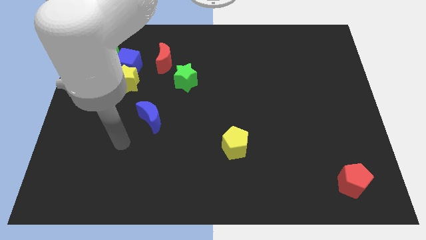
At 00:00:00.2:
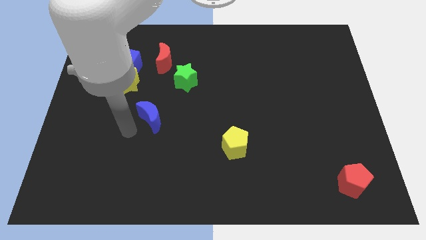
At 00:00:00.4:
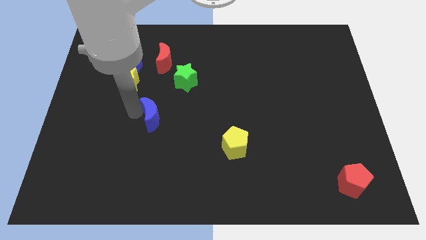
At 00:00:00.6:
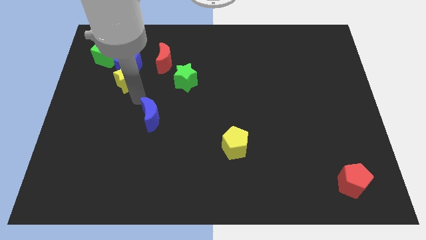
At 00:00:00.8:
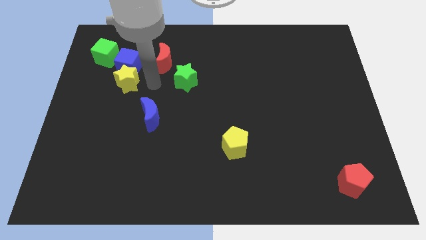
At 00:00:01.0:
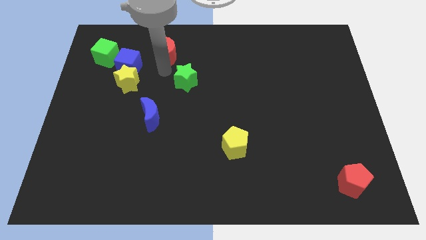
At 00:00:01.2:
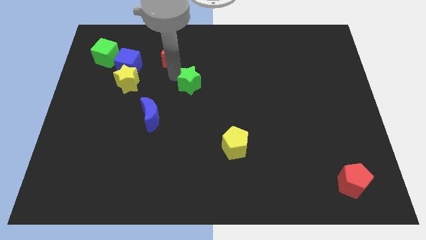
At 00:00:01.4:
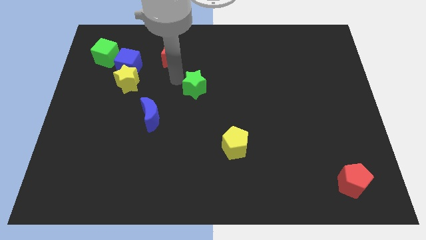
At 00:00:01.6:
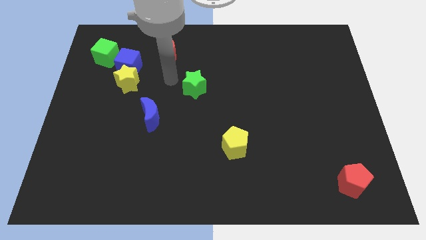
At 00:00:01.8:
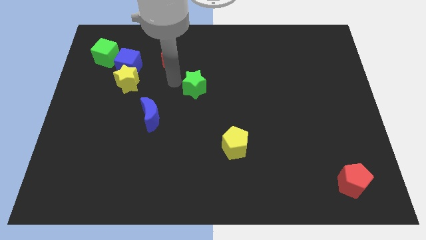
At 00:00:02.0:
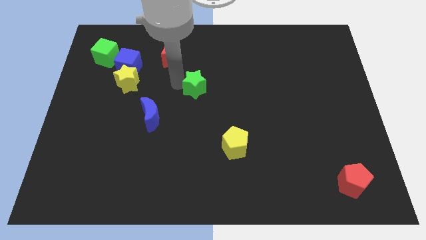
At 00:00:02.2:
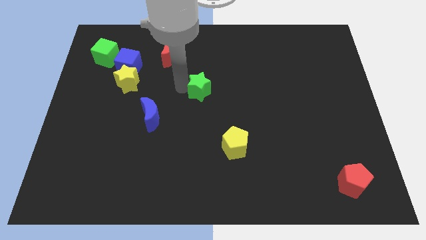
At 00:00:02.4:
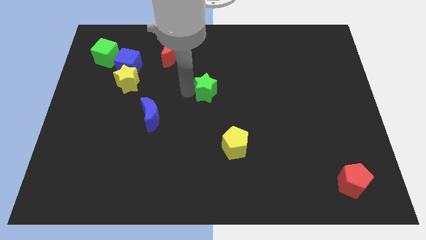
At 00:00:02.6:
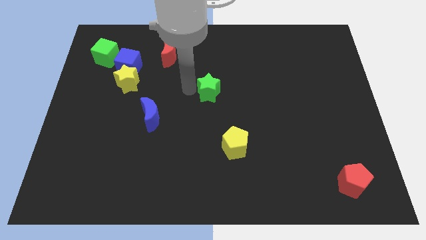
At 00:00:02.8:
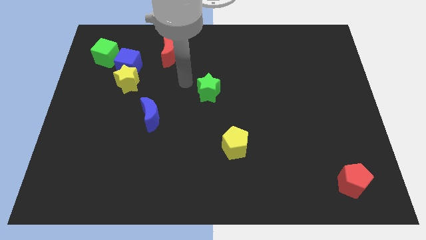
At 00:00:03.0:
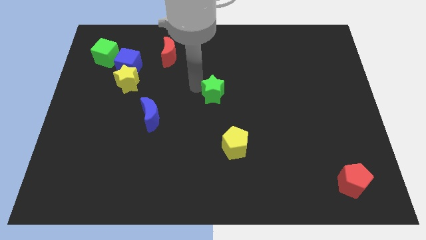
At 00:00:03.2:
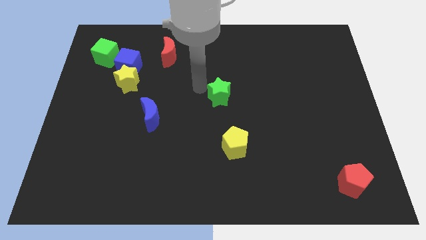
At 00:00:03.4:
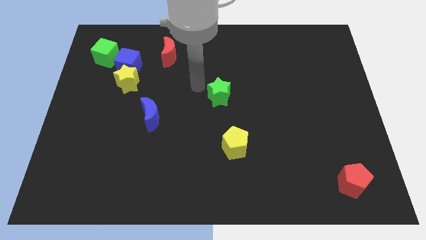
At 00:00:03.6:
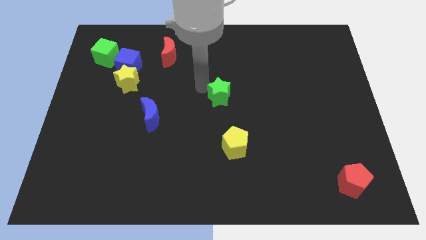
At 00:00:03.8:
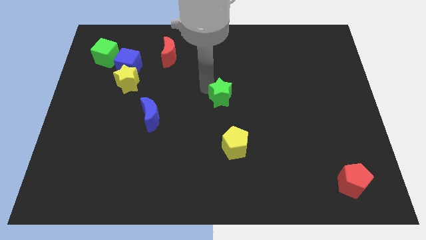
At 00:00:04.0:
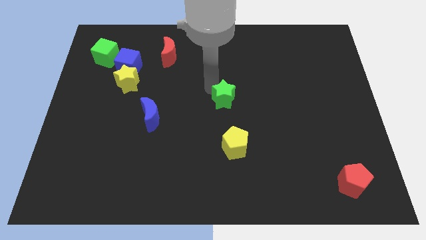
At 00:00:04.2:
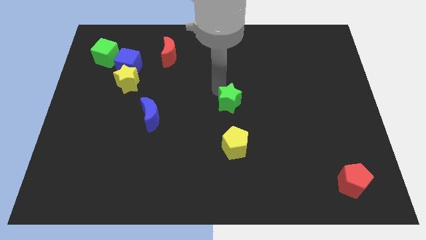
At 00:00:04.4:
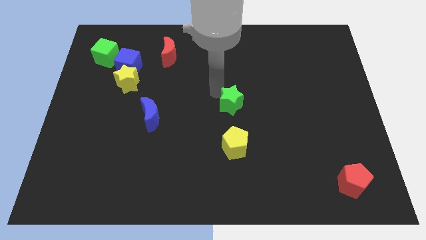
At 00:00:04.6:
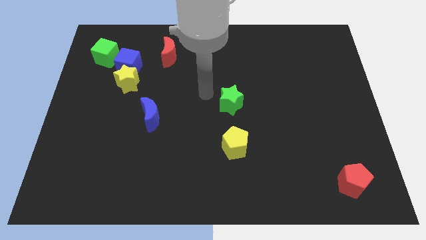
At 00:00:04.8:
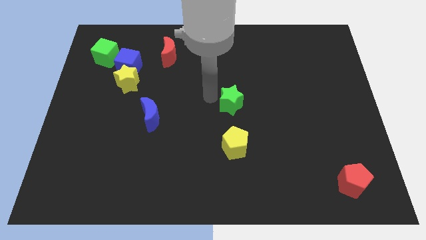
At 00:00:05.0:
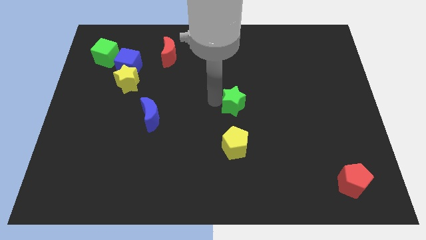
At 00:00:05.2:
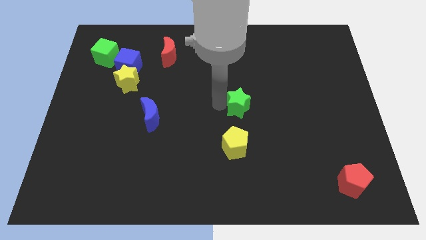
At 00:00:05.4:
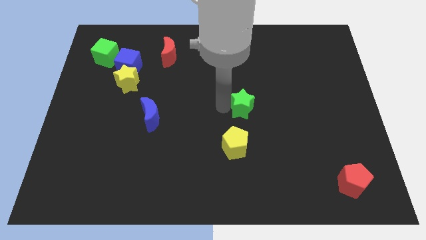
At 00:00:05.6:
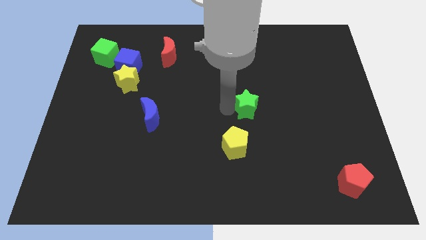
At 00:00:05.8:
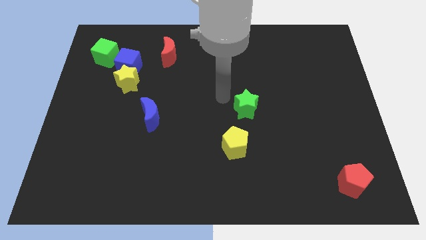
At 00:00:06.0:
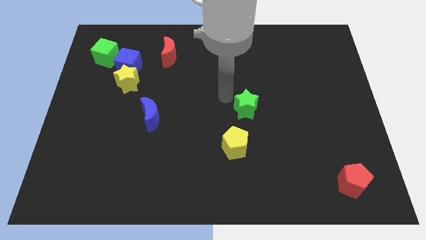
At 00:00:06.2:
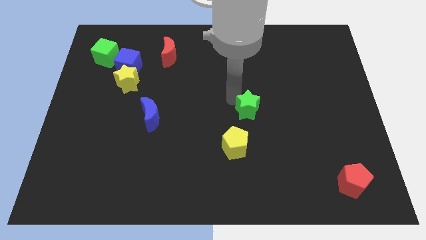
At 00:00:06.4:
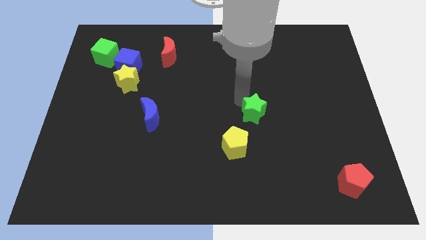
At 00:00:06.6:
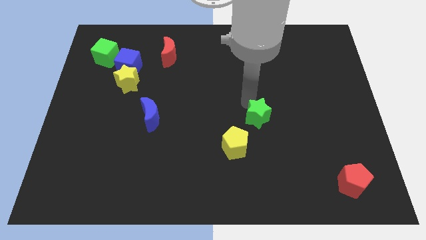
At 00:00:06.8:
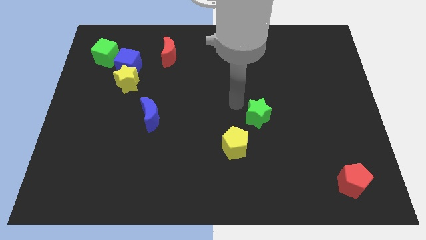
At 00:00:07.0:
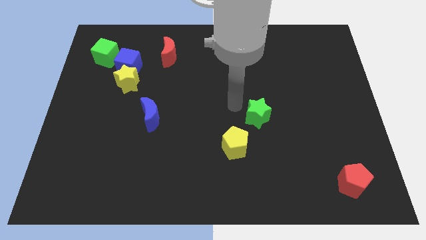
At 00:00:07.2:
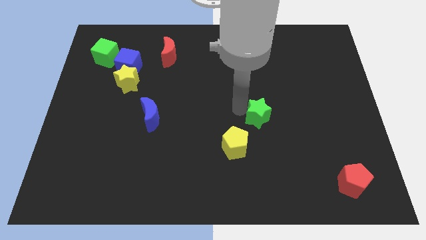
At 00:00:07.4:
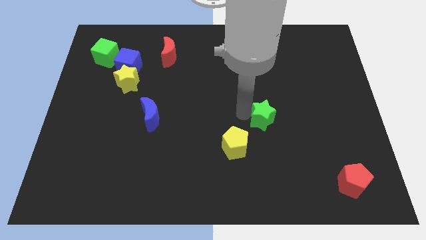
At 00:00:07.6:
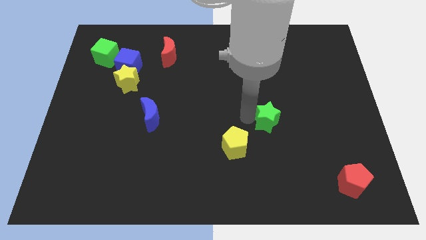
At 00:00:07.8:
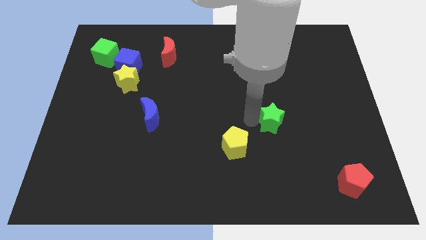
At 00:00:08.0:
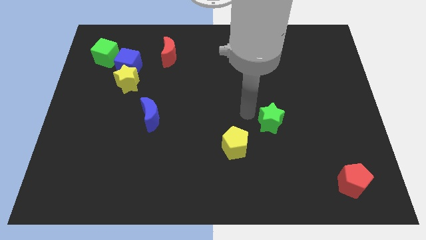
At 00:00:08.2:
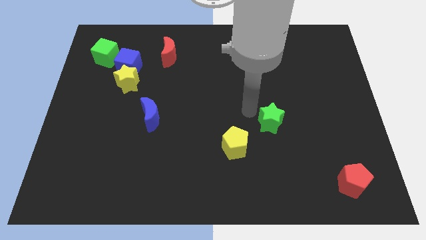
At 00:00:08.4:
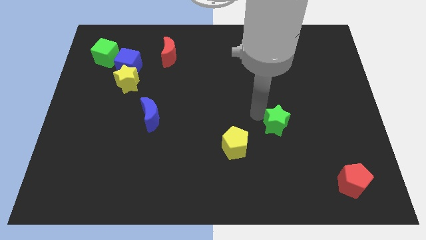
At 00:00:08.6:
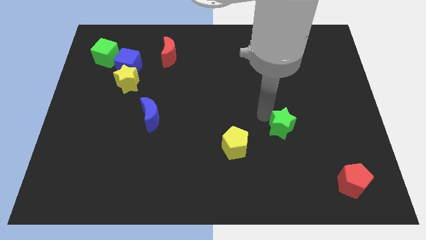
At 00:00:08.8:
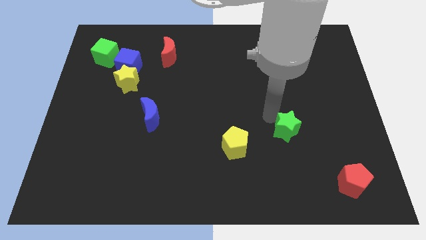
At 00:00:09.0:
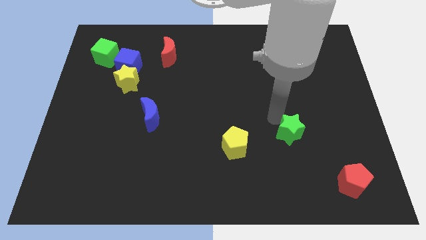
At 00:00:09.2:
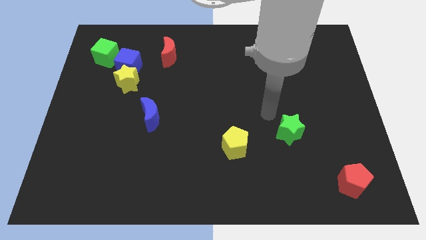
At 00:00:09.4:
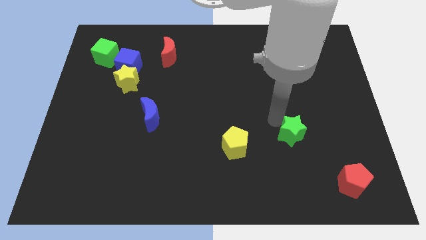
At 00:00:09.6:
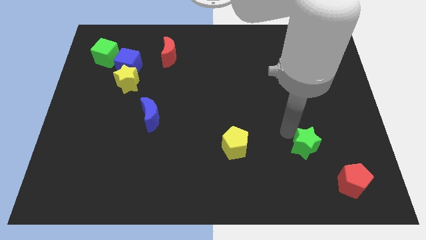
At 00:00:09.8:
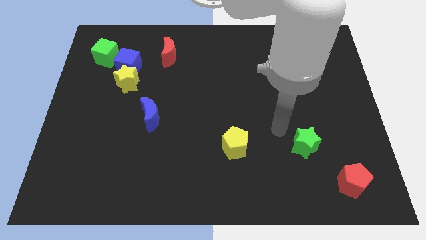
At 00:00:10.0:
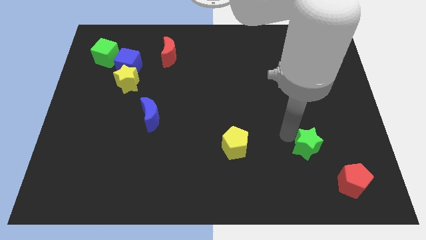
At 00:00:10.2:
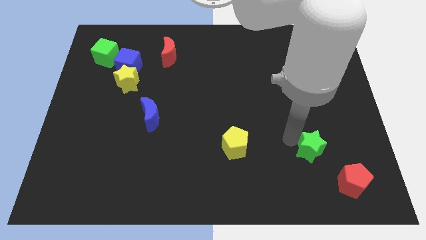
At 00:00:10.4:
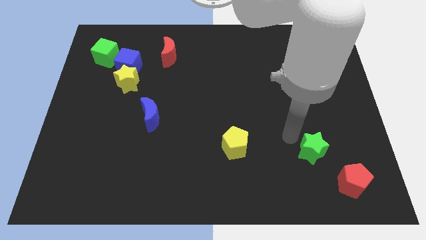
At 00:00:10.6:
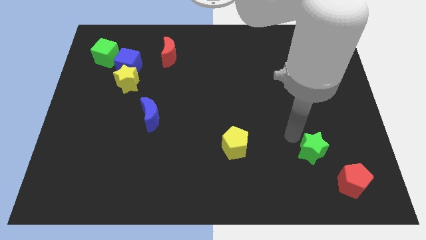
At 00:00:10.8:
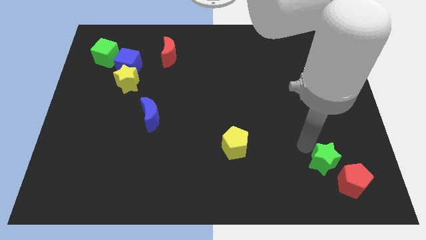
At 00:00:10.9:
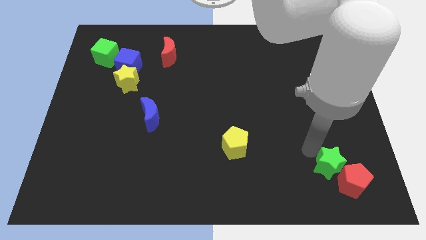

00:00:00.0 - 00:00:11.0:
push the green star to the red pentagon

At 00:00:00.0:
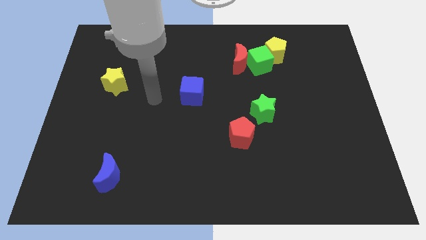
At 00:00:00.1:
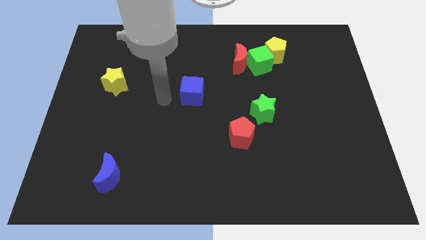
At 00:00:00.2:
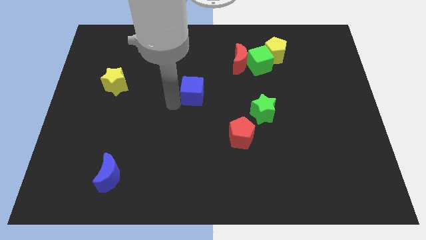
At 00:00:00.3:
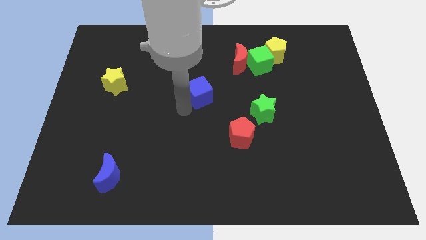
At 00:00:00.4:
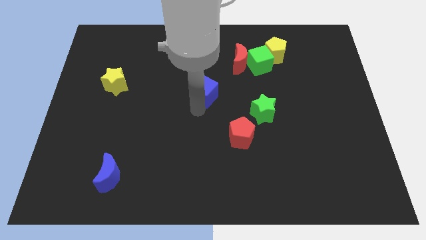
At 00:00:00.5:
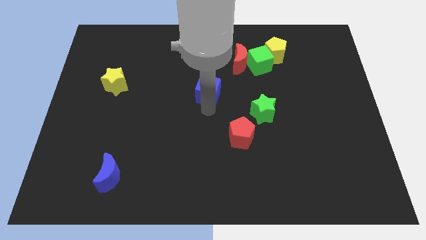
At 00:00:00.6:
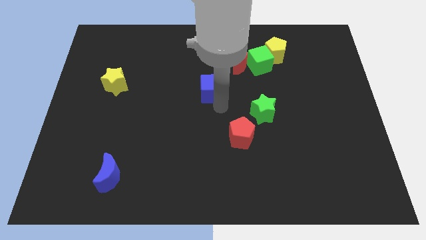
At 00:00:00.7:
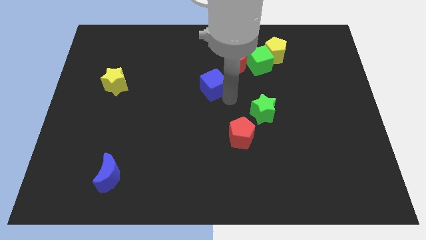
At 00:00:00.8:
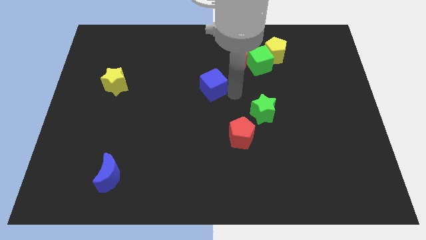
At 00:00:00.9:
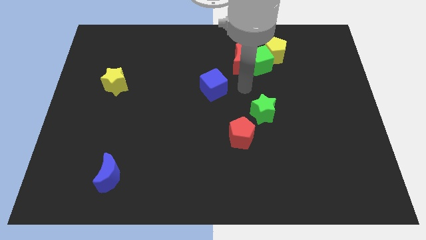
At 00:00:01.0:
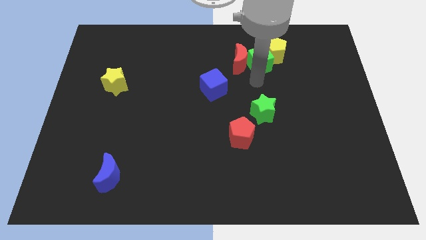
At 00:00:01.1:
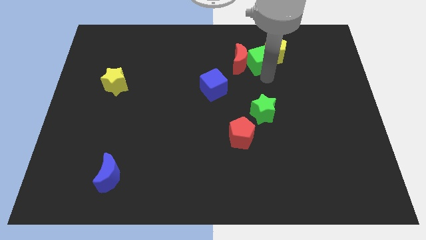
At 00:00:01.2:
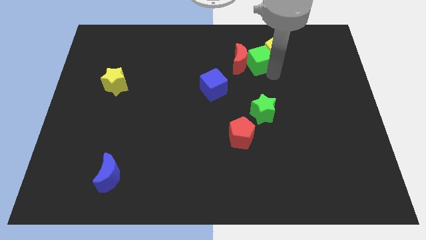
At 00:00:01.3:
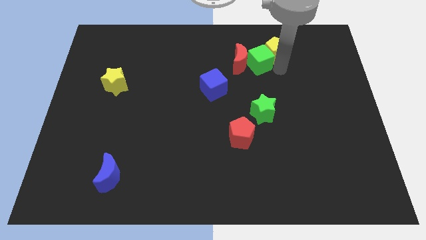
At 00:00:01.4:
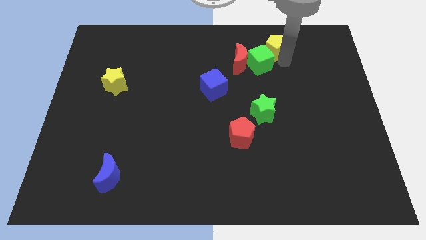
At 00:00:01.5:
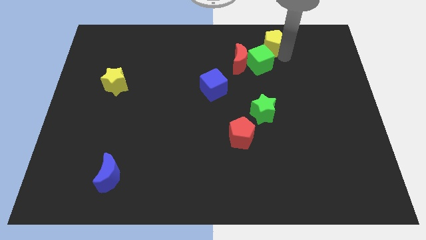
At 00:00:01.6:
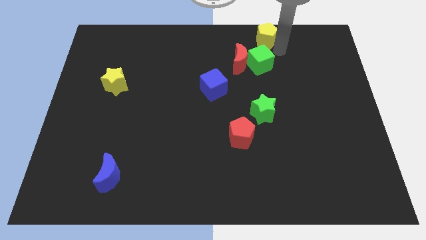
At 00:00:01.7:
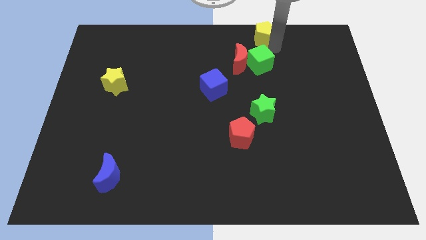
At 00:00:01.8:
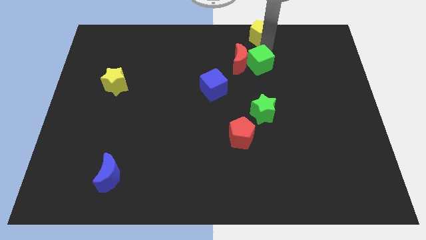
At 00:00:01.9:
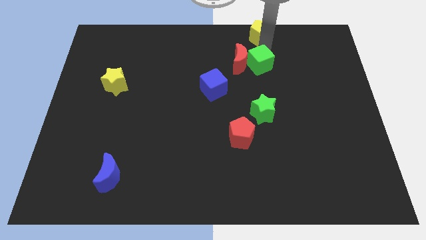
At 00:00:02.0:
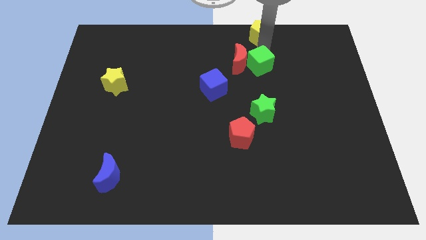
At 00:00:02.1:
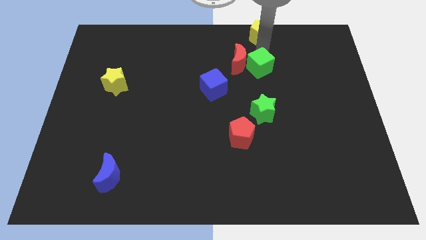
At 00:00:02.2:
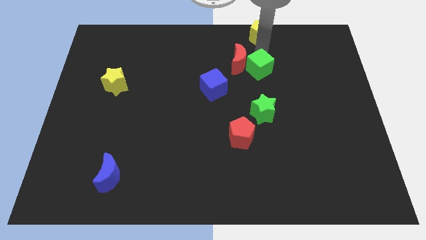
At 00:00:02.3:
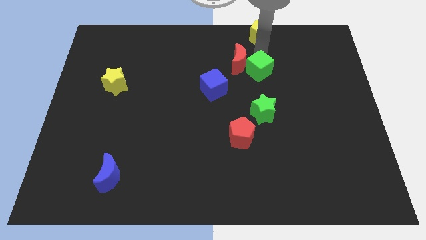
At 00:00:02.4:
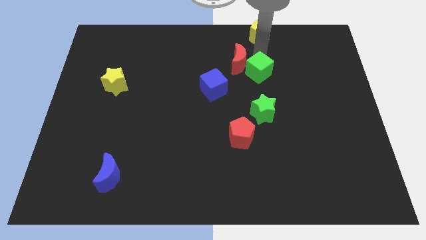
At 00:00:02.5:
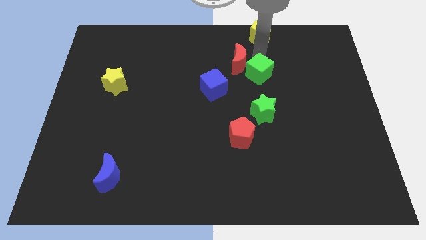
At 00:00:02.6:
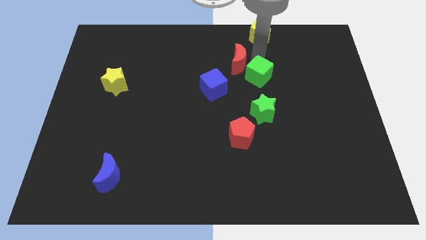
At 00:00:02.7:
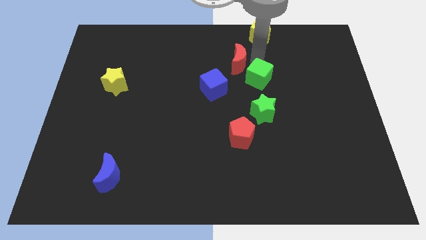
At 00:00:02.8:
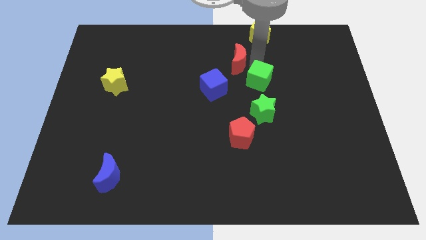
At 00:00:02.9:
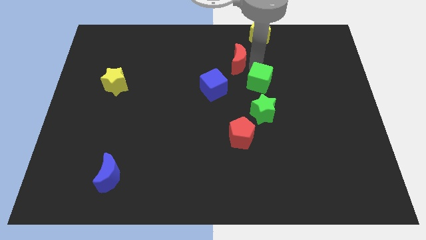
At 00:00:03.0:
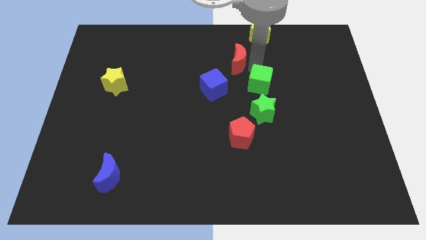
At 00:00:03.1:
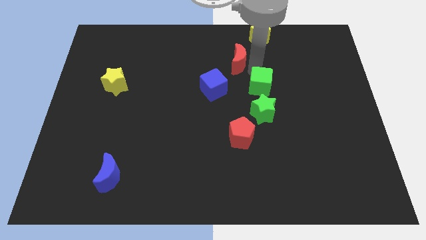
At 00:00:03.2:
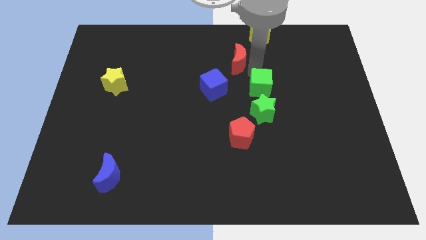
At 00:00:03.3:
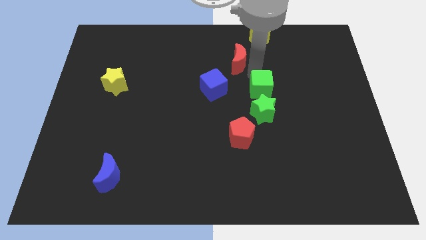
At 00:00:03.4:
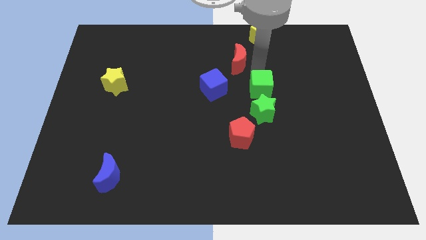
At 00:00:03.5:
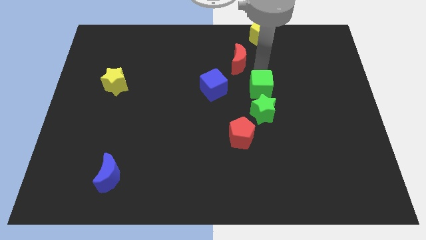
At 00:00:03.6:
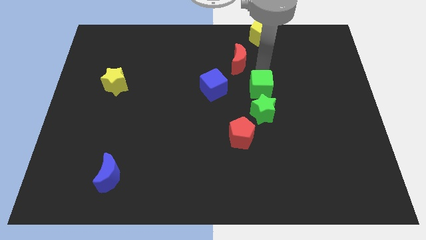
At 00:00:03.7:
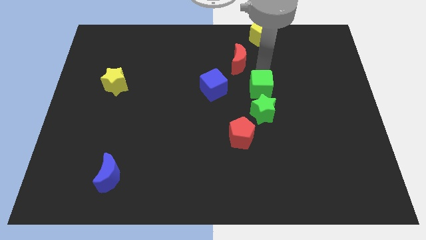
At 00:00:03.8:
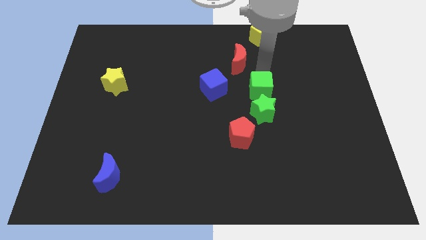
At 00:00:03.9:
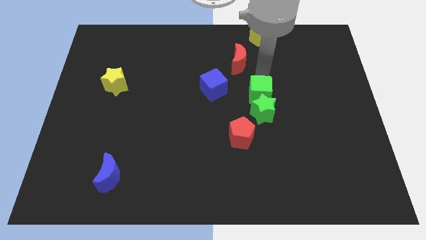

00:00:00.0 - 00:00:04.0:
put the green cube towards the green star
